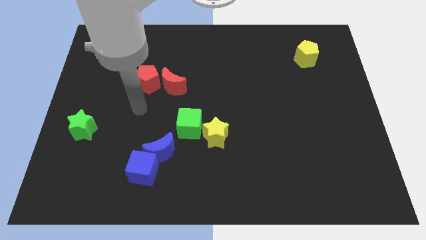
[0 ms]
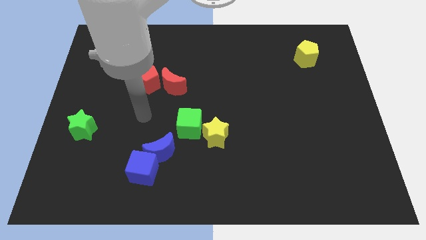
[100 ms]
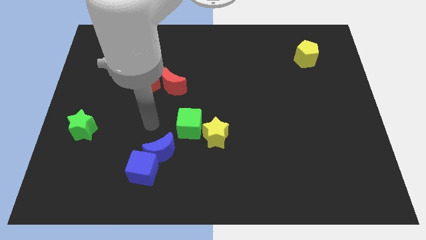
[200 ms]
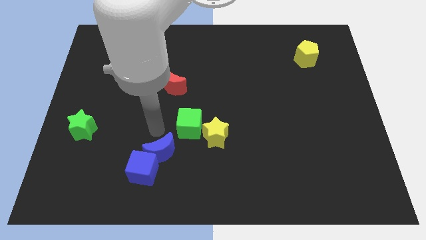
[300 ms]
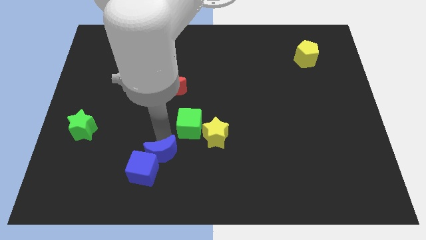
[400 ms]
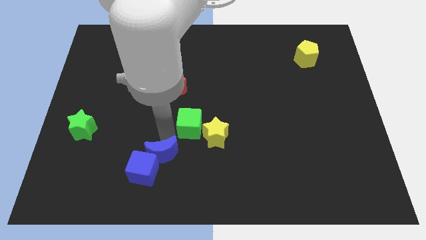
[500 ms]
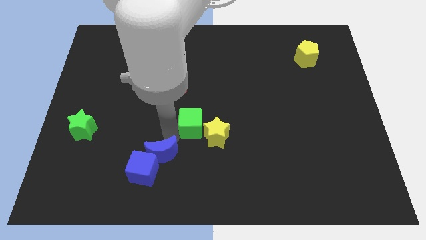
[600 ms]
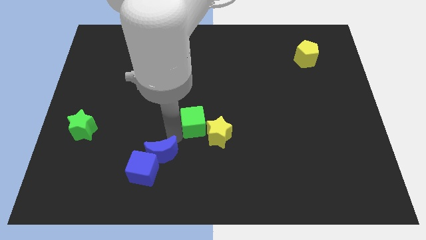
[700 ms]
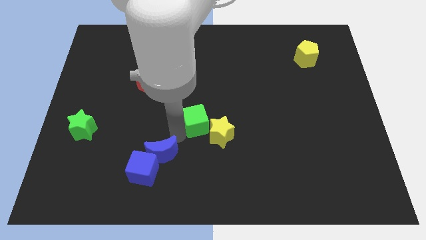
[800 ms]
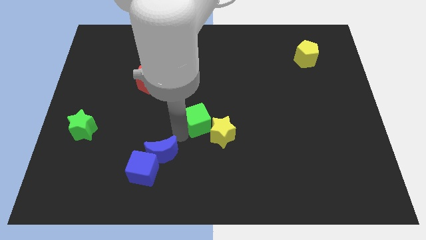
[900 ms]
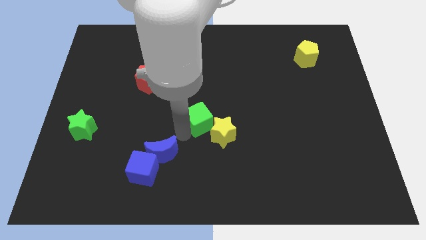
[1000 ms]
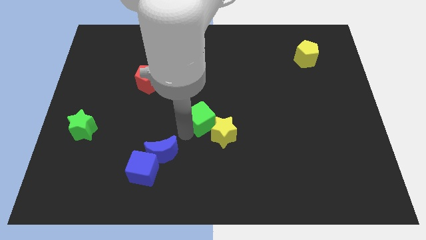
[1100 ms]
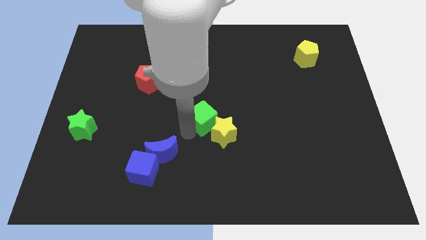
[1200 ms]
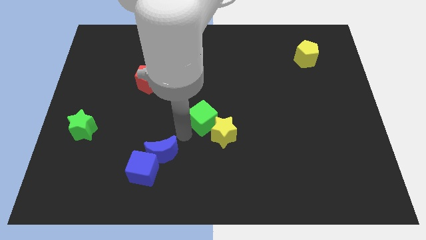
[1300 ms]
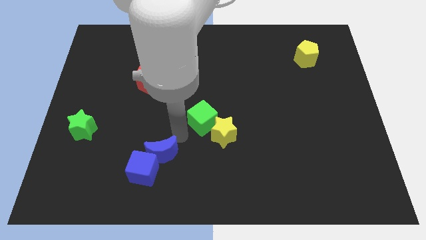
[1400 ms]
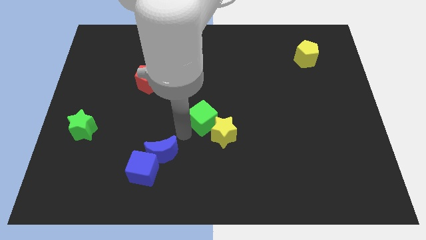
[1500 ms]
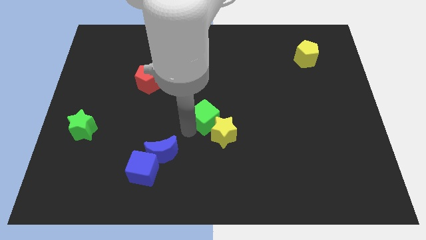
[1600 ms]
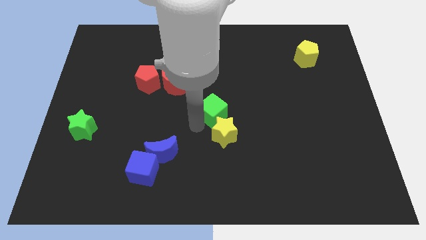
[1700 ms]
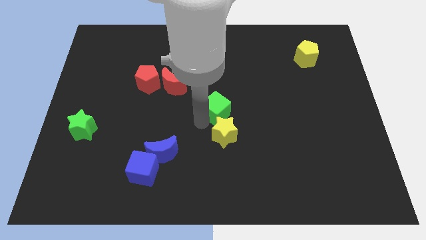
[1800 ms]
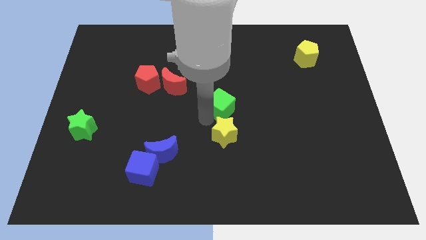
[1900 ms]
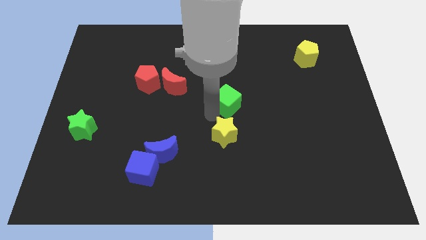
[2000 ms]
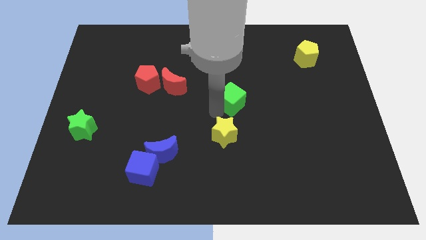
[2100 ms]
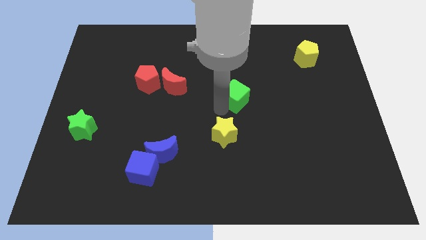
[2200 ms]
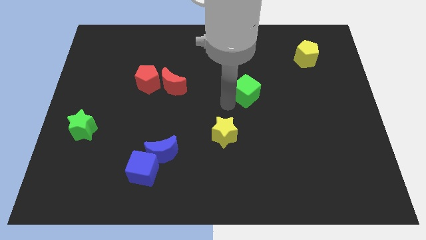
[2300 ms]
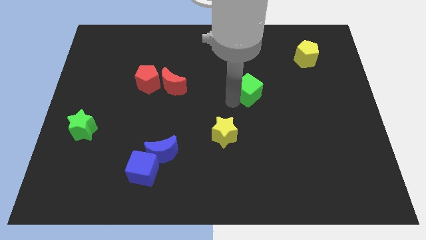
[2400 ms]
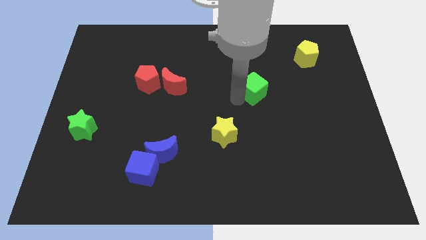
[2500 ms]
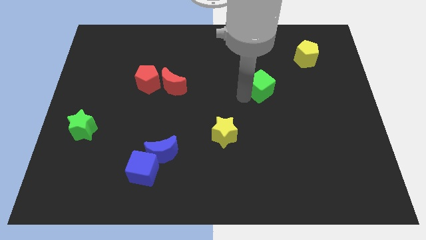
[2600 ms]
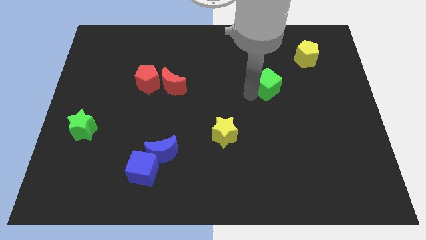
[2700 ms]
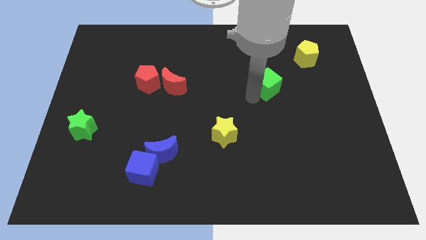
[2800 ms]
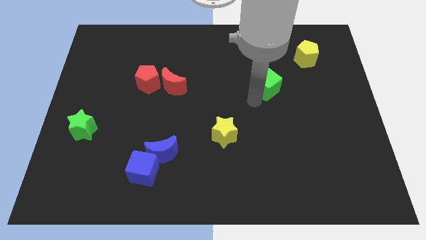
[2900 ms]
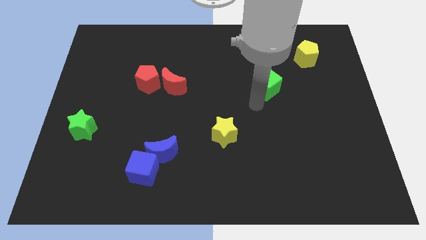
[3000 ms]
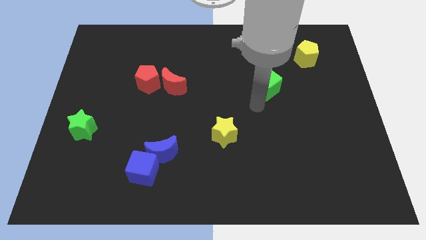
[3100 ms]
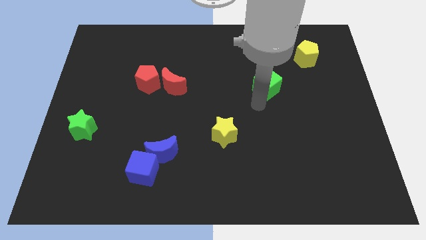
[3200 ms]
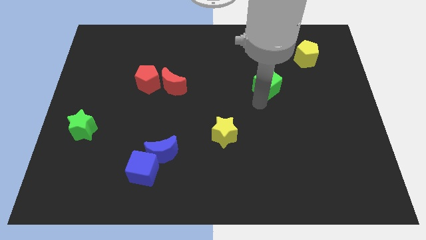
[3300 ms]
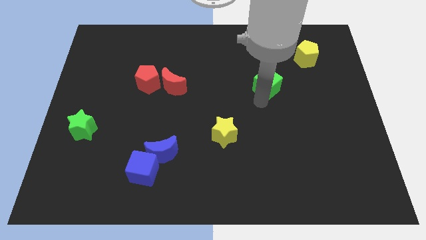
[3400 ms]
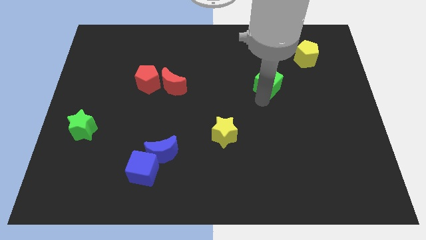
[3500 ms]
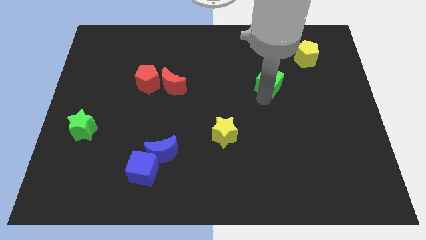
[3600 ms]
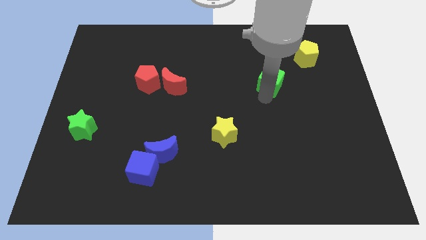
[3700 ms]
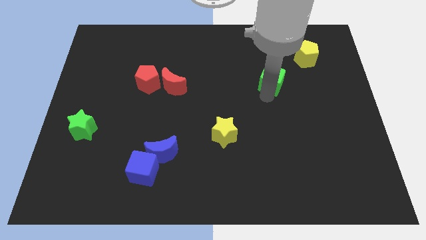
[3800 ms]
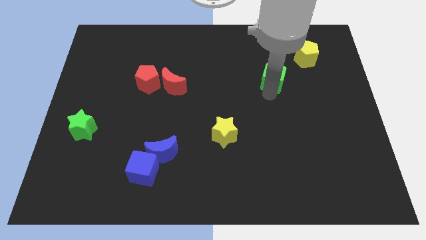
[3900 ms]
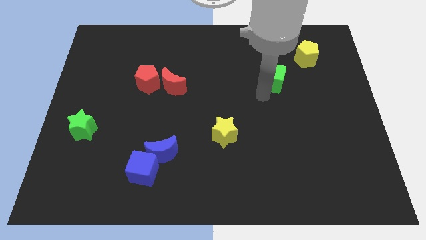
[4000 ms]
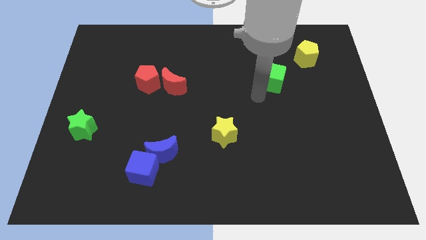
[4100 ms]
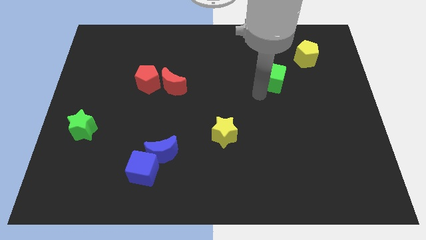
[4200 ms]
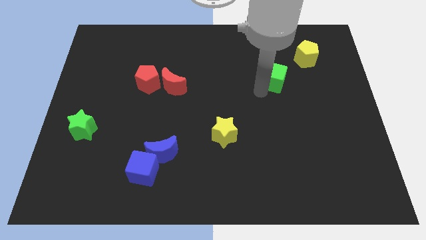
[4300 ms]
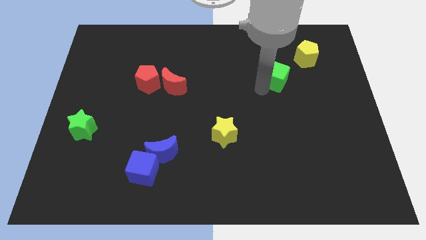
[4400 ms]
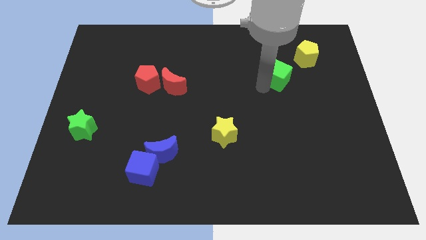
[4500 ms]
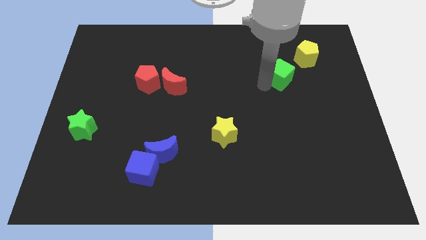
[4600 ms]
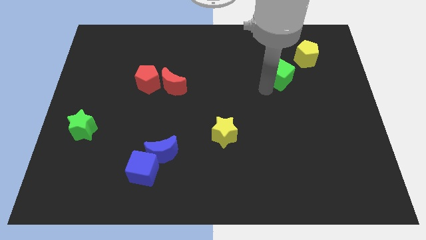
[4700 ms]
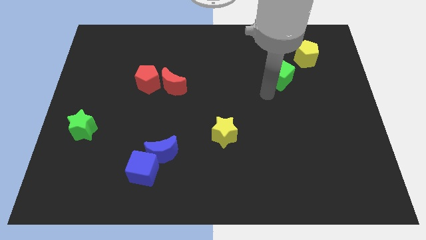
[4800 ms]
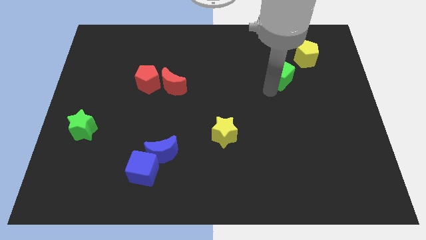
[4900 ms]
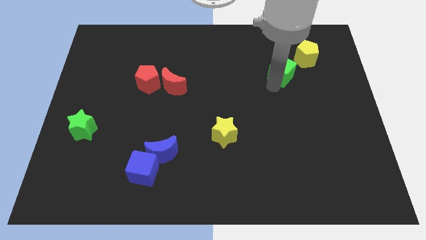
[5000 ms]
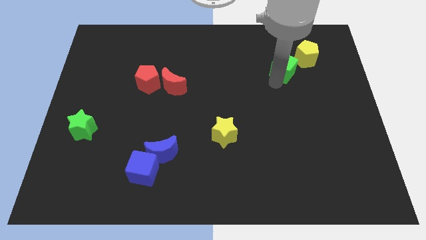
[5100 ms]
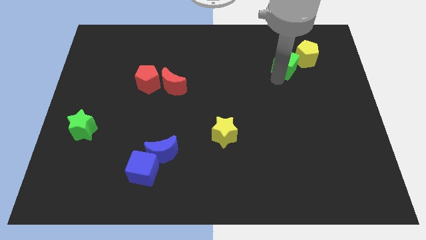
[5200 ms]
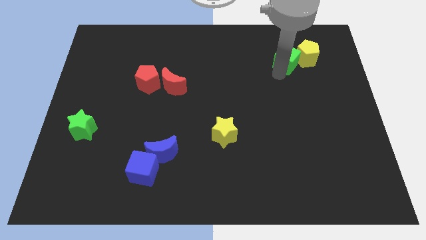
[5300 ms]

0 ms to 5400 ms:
push the green cube towards the yellow pentagon

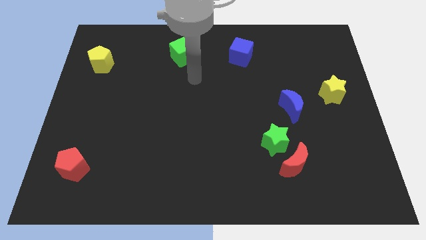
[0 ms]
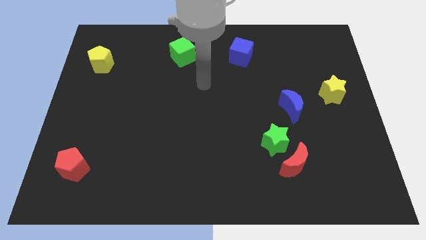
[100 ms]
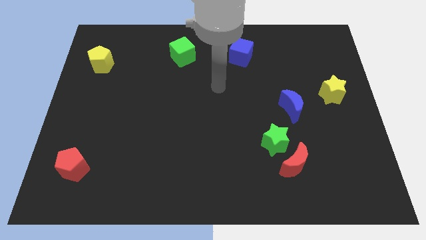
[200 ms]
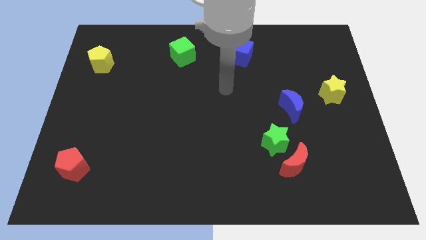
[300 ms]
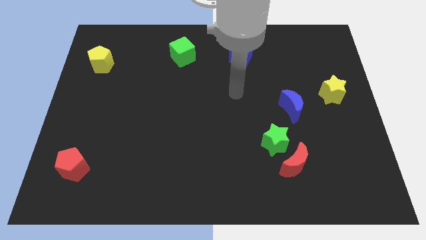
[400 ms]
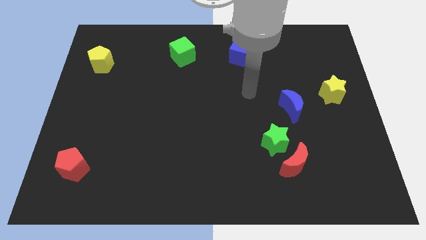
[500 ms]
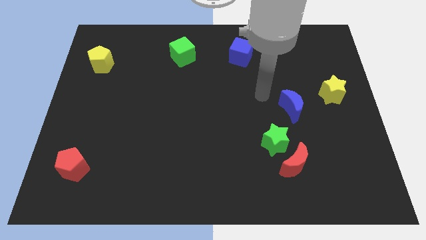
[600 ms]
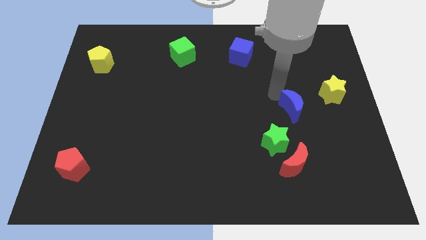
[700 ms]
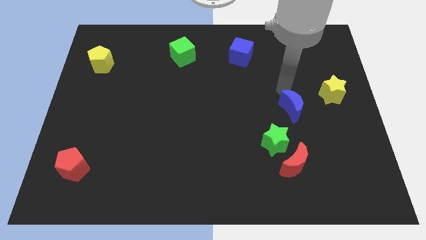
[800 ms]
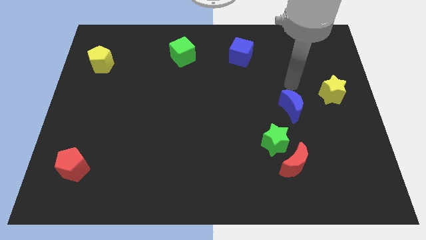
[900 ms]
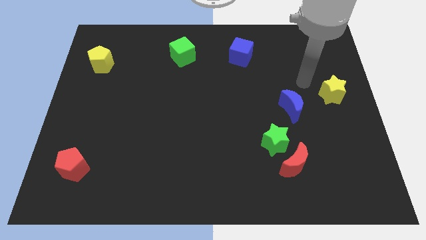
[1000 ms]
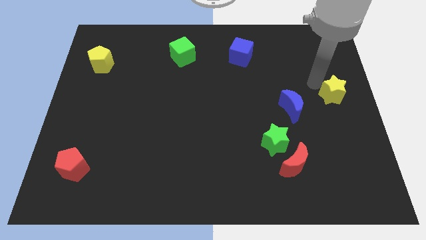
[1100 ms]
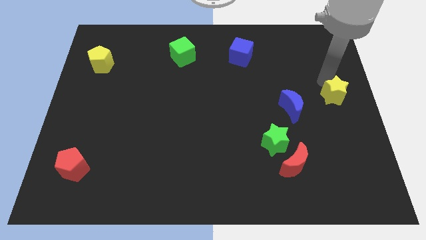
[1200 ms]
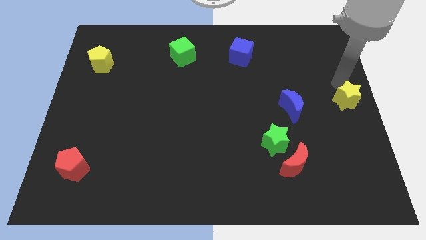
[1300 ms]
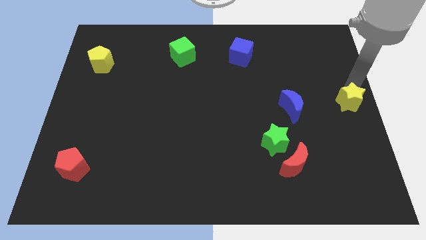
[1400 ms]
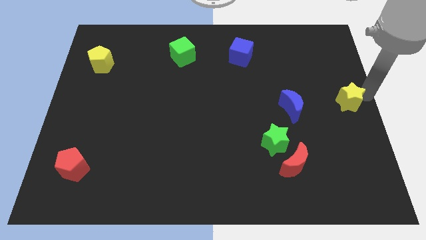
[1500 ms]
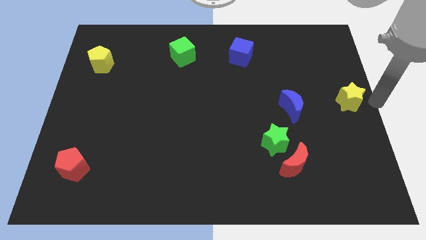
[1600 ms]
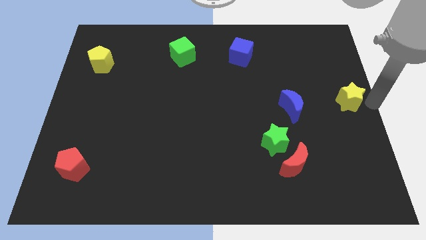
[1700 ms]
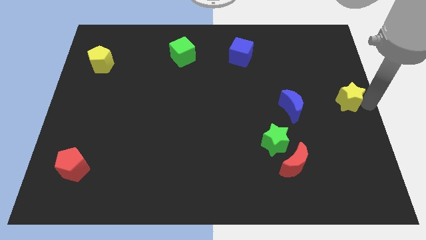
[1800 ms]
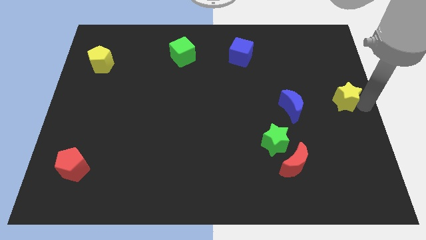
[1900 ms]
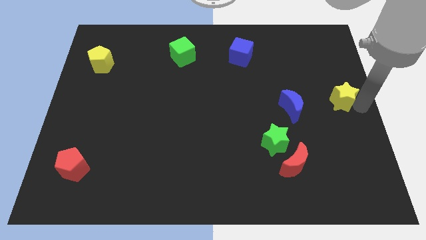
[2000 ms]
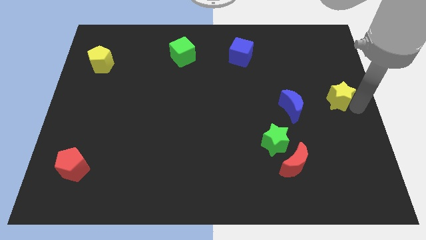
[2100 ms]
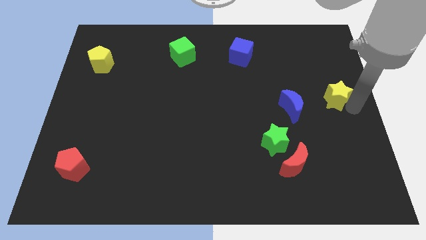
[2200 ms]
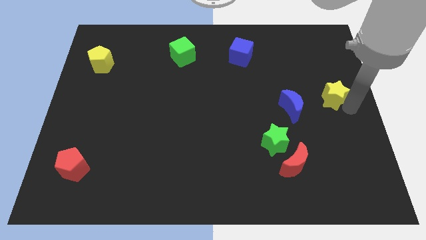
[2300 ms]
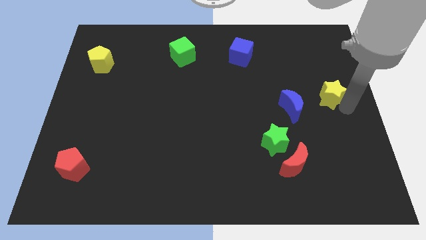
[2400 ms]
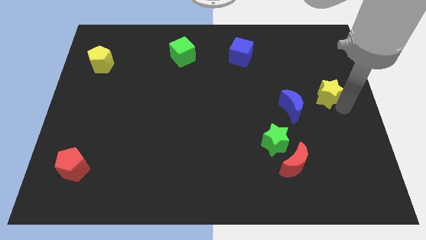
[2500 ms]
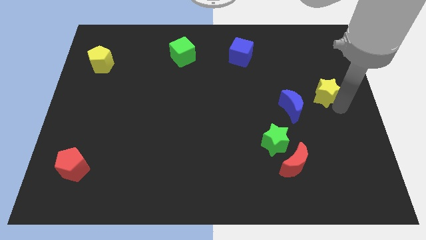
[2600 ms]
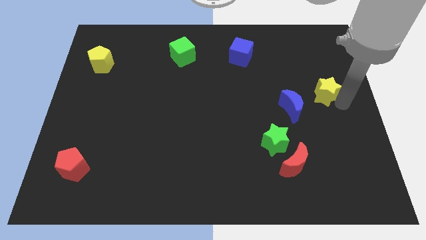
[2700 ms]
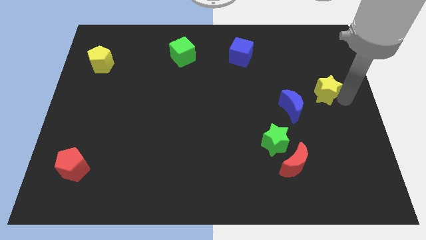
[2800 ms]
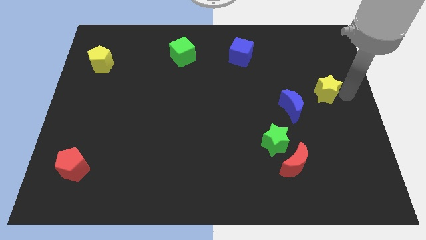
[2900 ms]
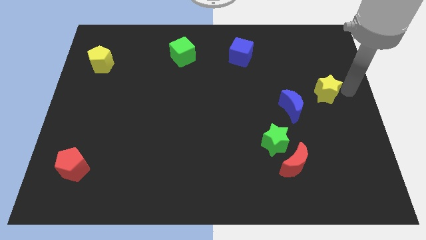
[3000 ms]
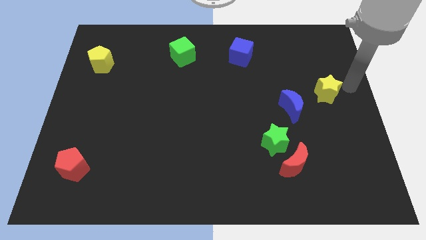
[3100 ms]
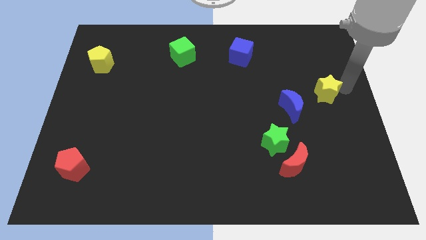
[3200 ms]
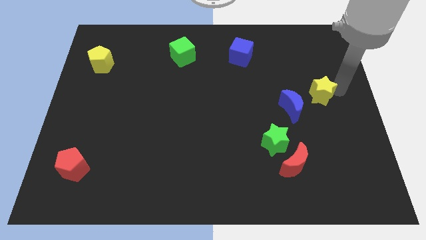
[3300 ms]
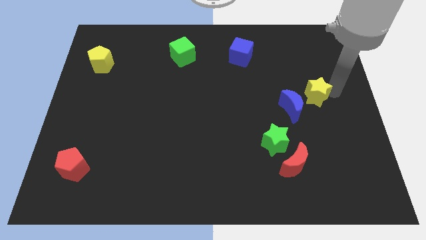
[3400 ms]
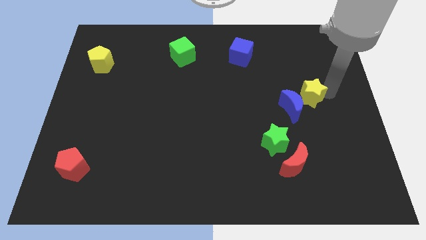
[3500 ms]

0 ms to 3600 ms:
slide the yellow star close to the blue moon
